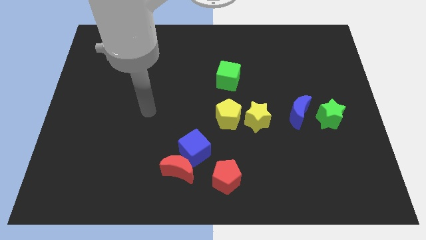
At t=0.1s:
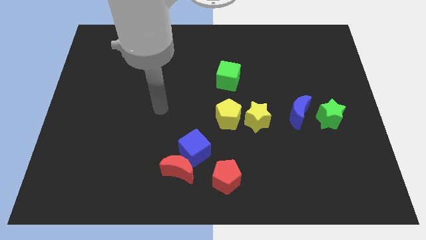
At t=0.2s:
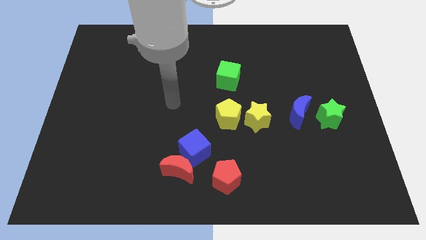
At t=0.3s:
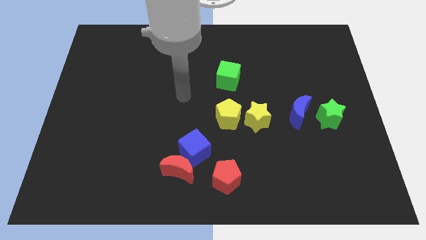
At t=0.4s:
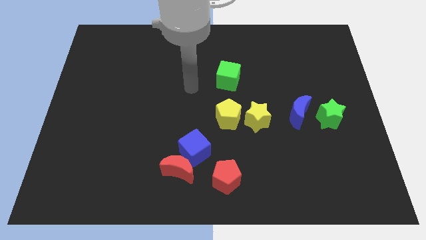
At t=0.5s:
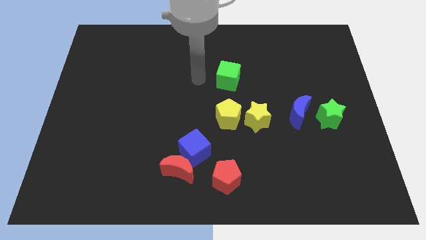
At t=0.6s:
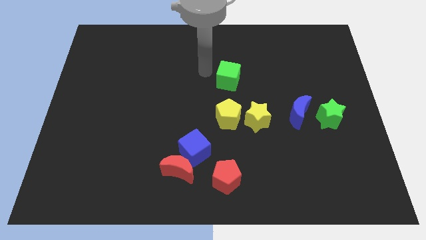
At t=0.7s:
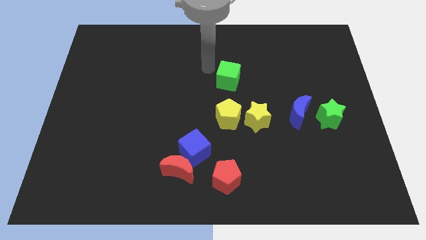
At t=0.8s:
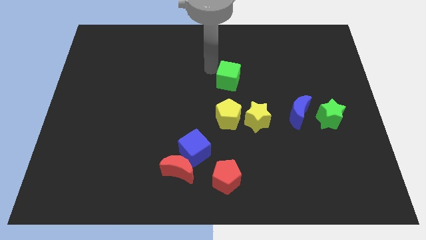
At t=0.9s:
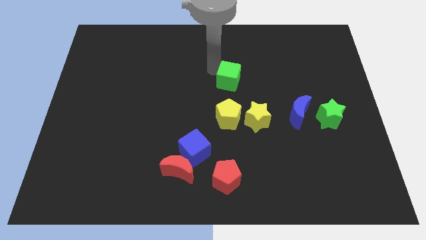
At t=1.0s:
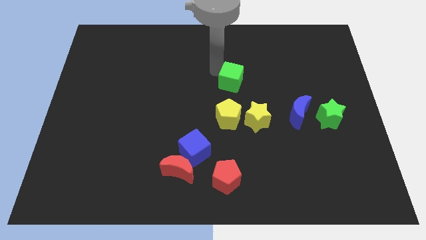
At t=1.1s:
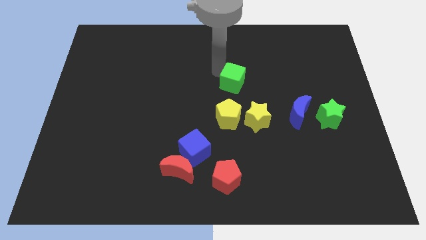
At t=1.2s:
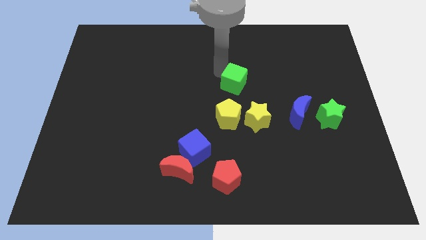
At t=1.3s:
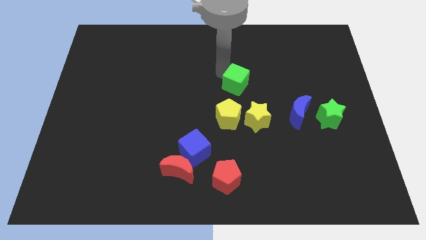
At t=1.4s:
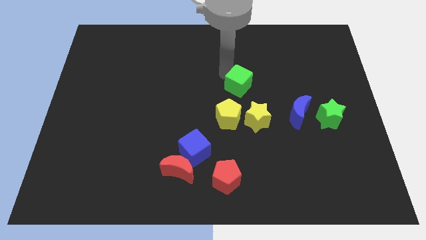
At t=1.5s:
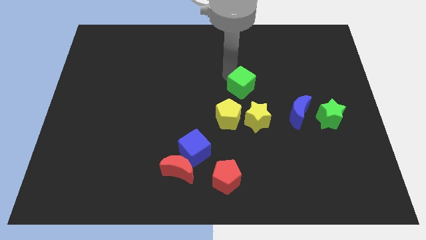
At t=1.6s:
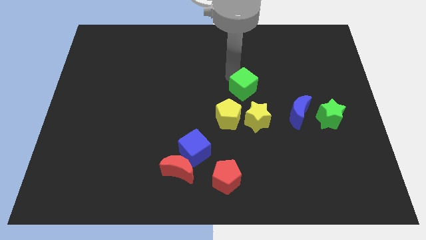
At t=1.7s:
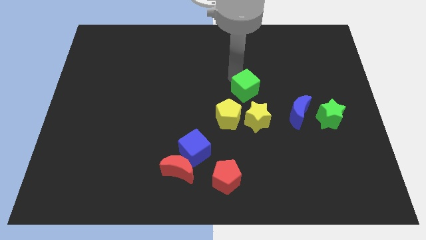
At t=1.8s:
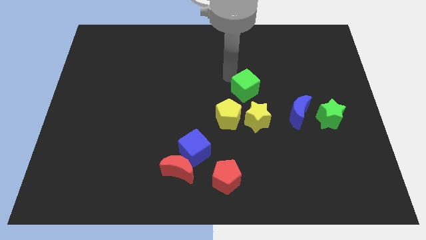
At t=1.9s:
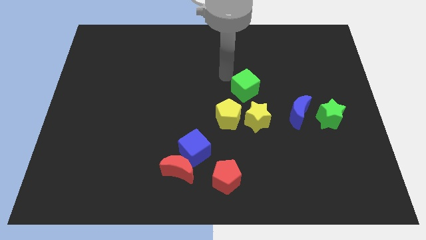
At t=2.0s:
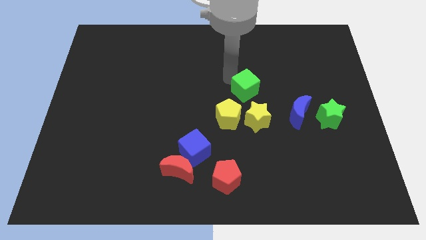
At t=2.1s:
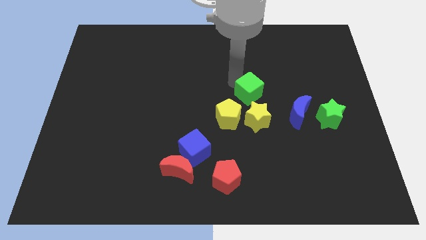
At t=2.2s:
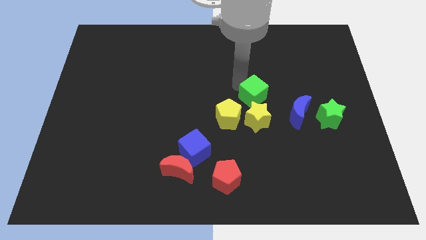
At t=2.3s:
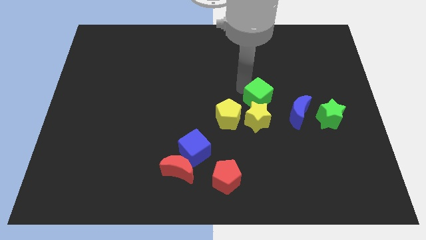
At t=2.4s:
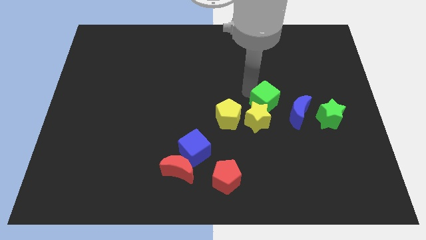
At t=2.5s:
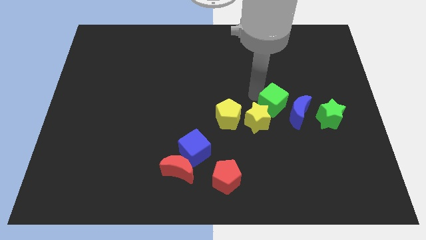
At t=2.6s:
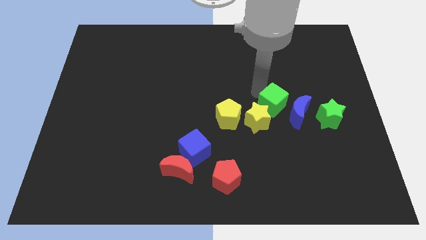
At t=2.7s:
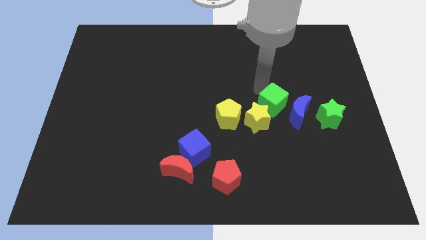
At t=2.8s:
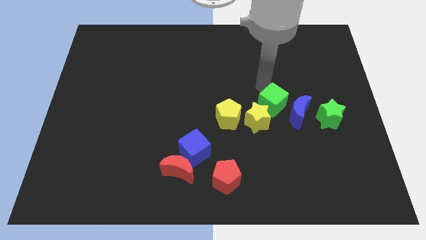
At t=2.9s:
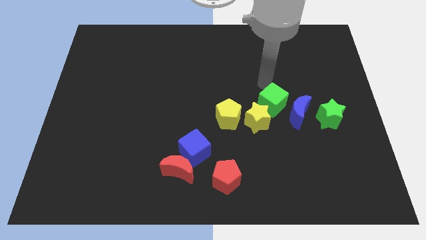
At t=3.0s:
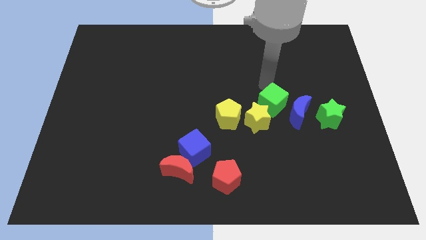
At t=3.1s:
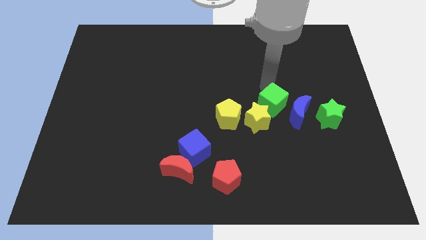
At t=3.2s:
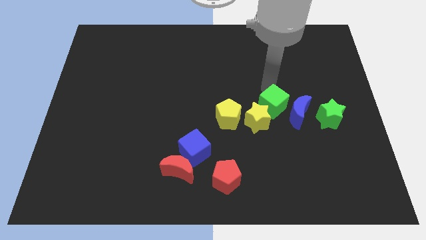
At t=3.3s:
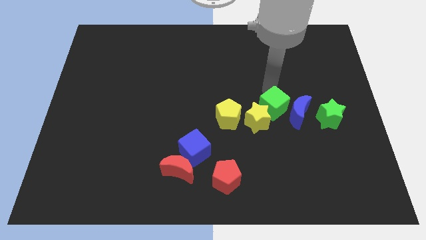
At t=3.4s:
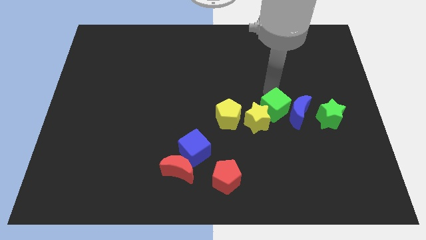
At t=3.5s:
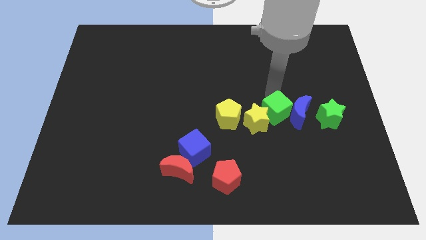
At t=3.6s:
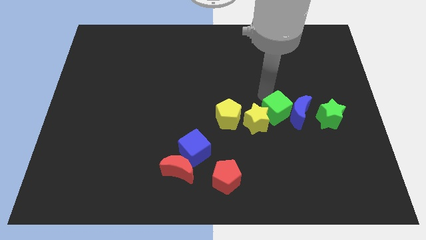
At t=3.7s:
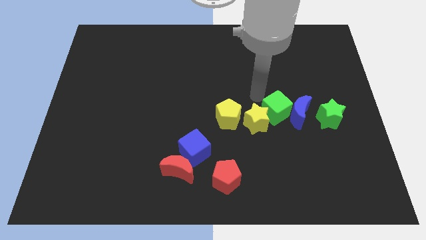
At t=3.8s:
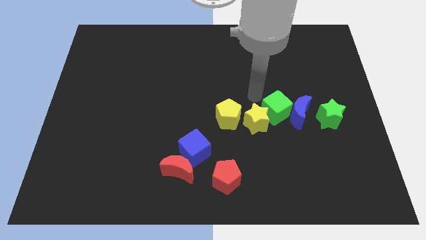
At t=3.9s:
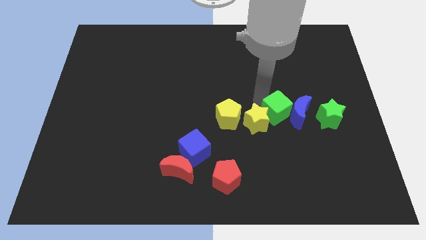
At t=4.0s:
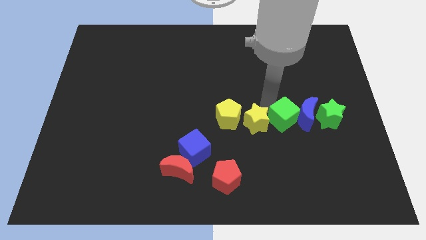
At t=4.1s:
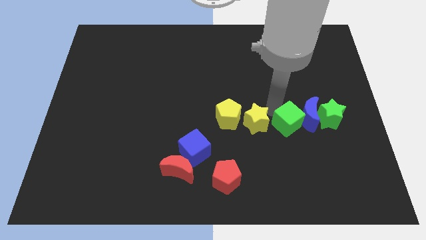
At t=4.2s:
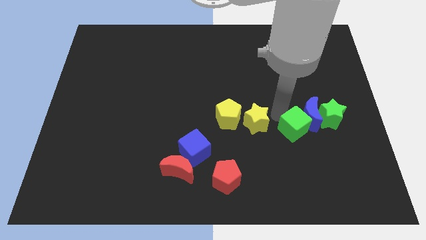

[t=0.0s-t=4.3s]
move the green cube diagonally downwards and to the right

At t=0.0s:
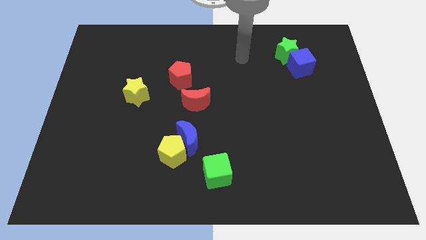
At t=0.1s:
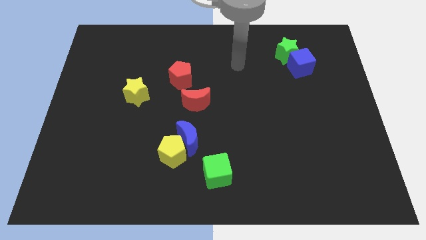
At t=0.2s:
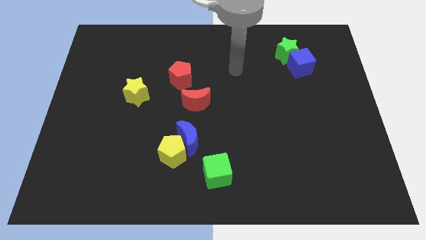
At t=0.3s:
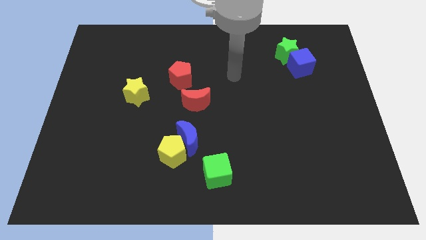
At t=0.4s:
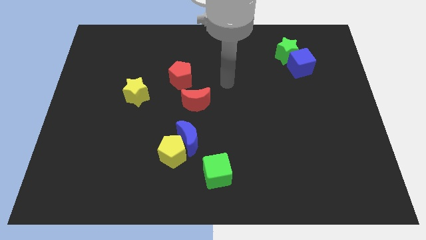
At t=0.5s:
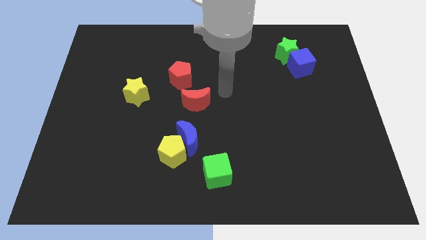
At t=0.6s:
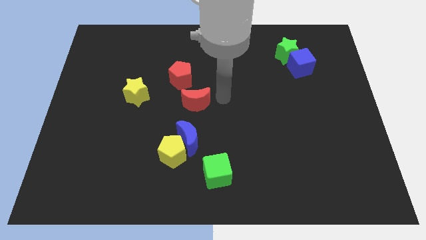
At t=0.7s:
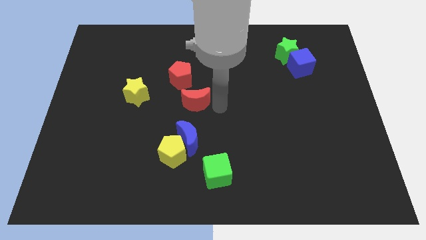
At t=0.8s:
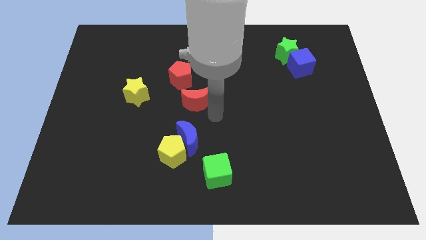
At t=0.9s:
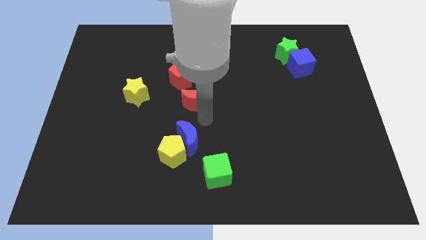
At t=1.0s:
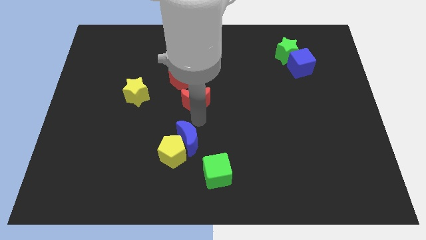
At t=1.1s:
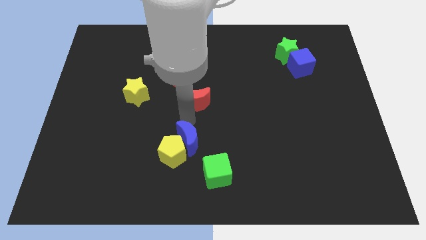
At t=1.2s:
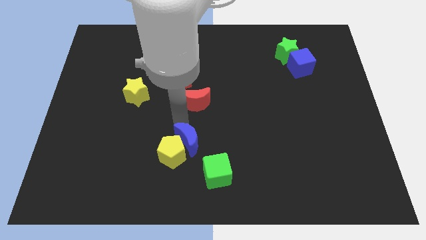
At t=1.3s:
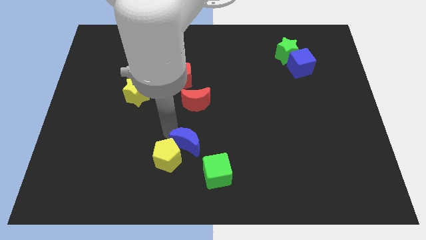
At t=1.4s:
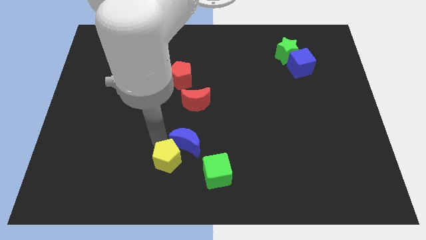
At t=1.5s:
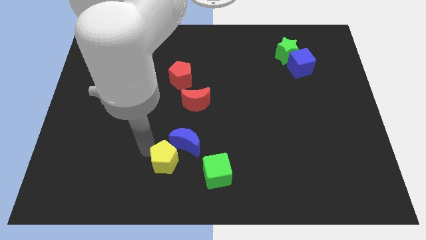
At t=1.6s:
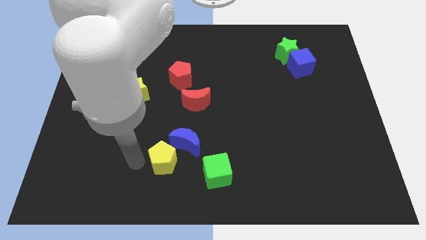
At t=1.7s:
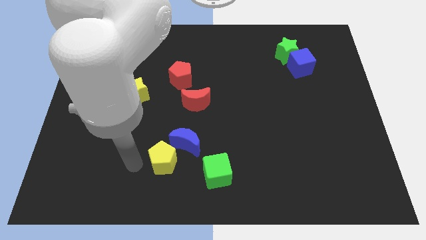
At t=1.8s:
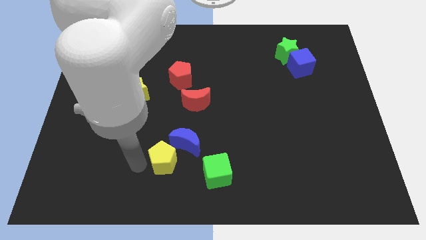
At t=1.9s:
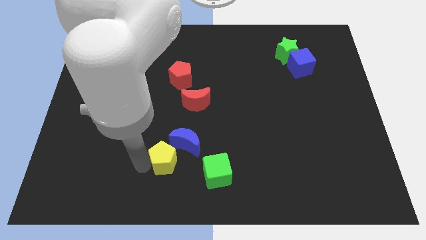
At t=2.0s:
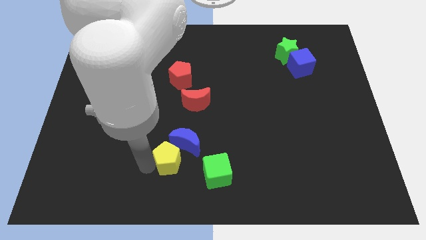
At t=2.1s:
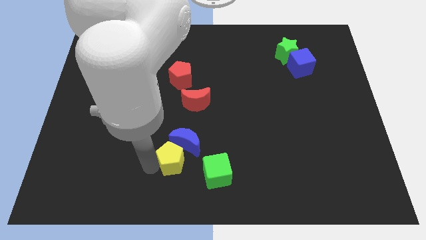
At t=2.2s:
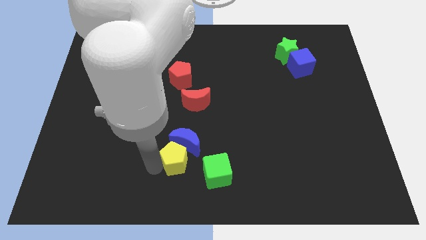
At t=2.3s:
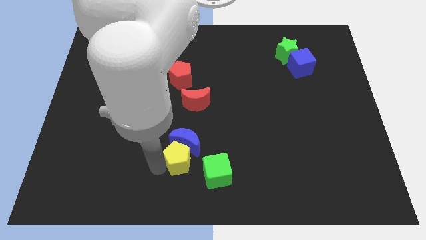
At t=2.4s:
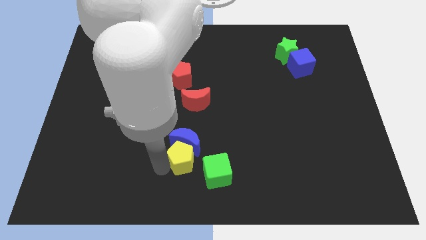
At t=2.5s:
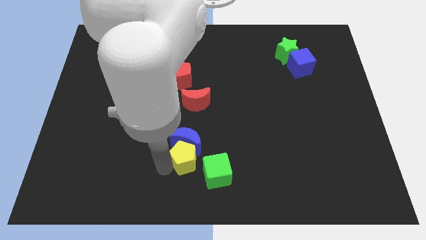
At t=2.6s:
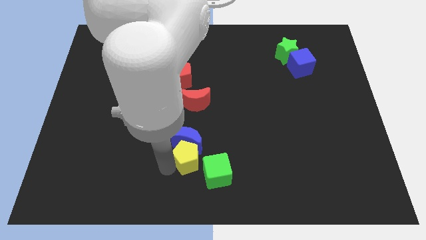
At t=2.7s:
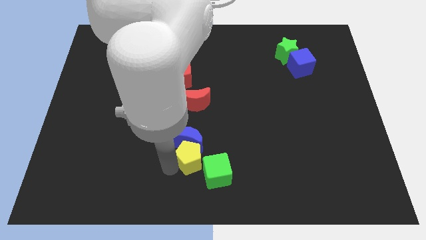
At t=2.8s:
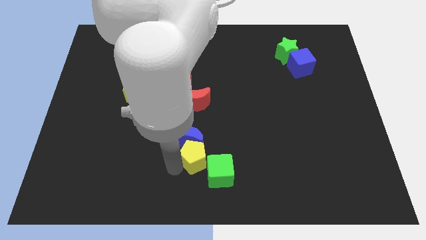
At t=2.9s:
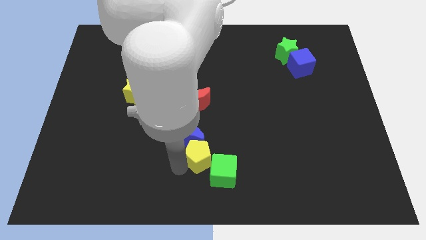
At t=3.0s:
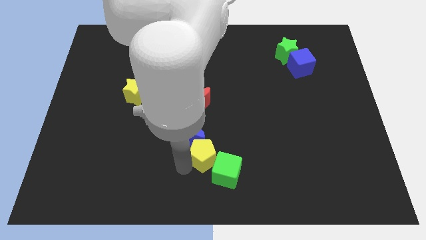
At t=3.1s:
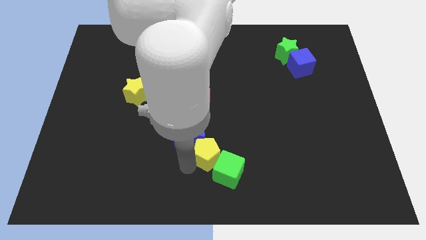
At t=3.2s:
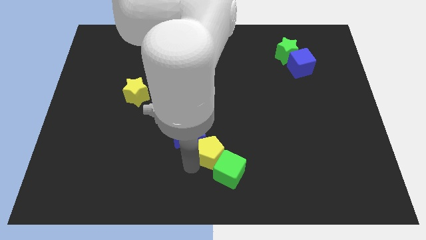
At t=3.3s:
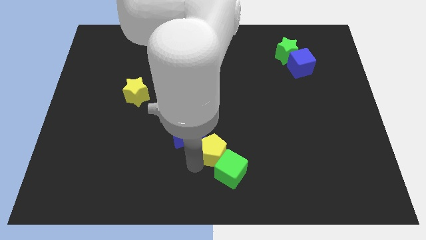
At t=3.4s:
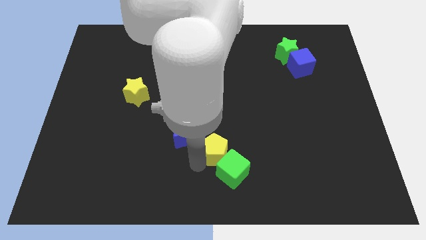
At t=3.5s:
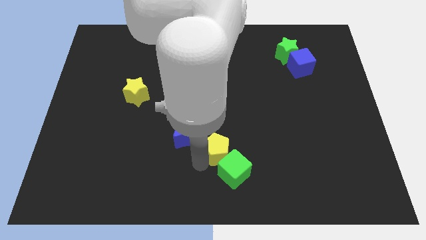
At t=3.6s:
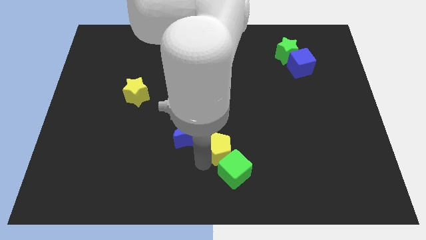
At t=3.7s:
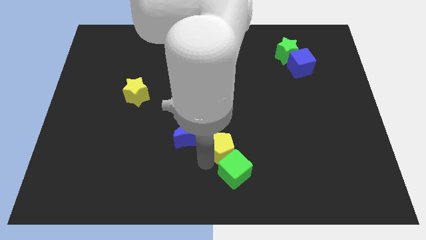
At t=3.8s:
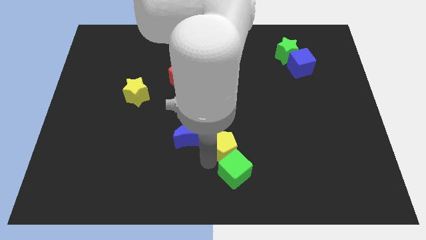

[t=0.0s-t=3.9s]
slide the yellow pentagon up and to the right a little bit
